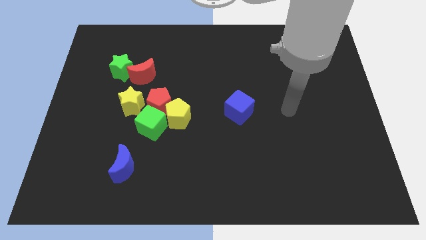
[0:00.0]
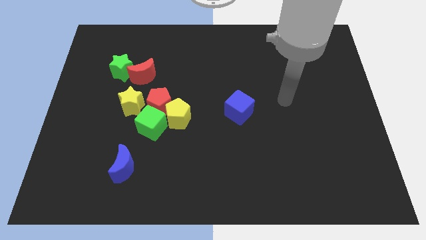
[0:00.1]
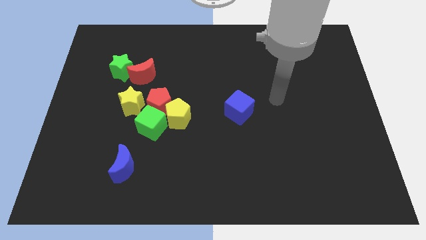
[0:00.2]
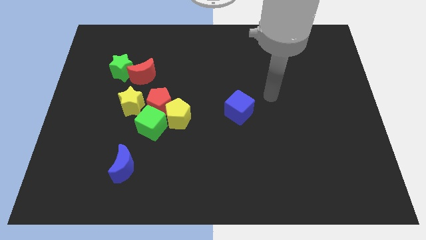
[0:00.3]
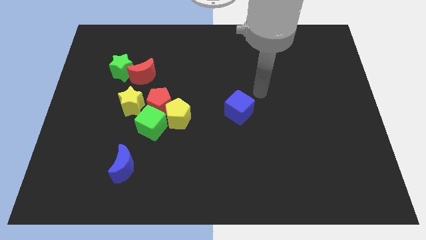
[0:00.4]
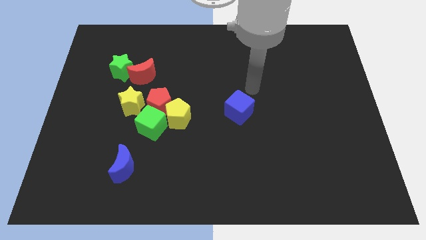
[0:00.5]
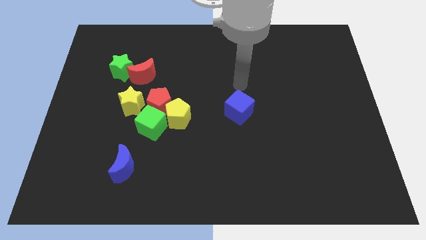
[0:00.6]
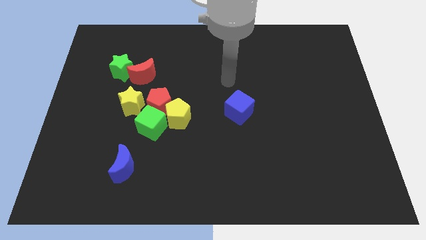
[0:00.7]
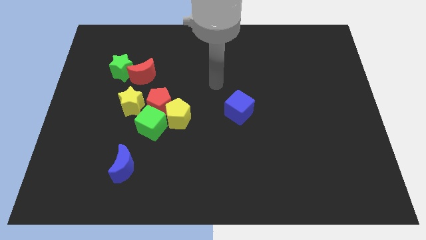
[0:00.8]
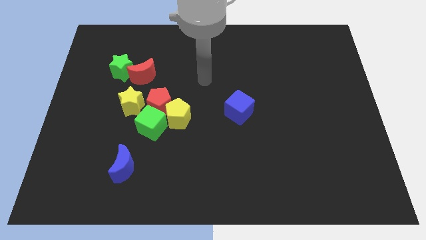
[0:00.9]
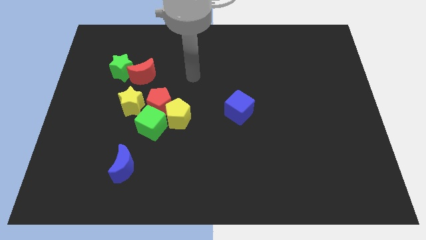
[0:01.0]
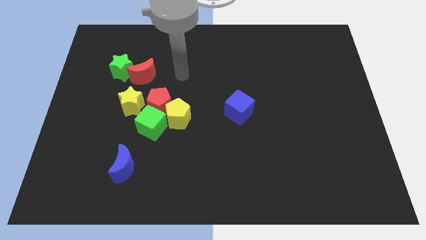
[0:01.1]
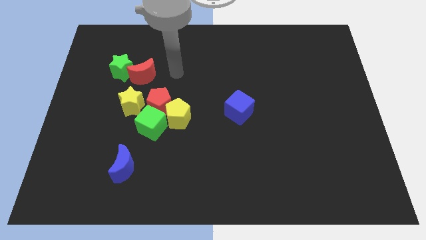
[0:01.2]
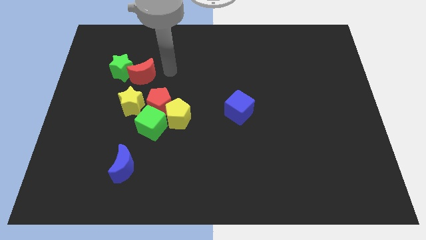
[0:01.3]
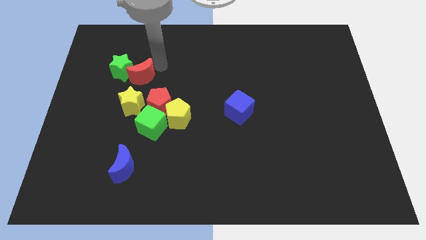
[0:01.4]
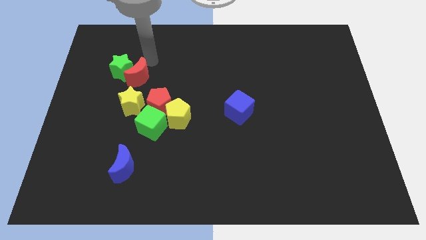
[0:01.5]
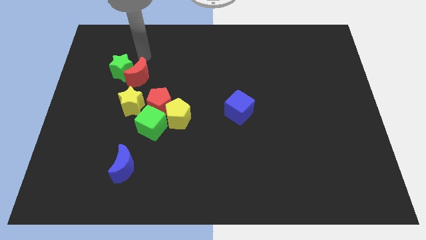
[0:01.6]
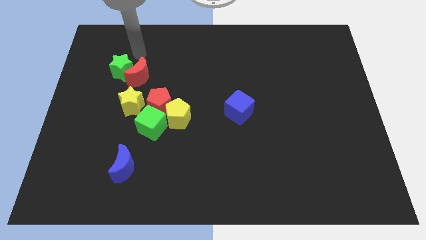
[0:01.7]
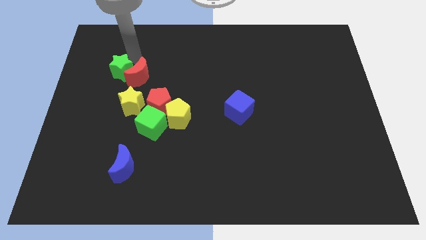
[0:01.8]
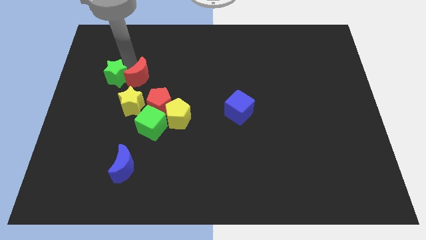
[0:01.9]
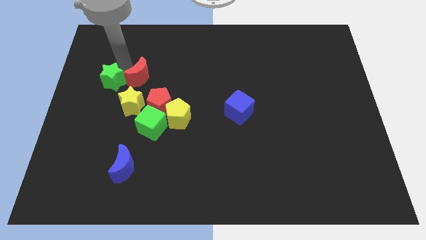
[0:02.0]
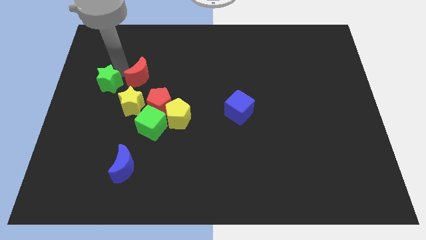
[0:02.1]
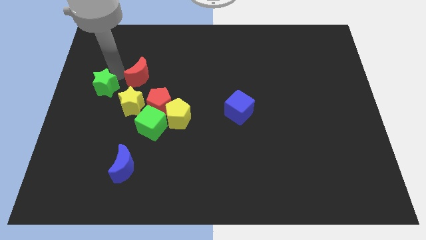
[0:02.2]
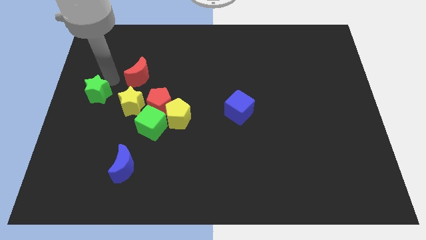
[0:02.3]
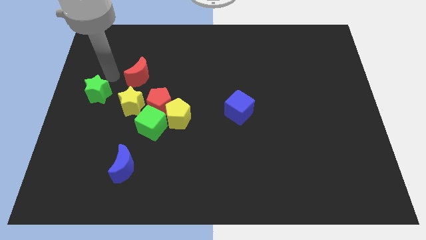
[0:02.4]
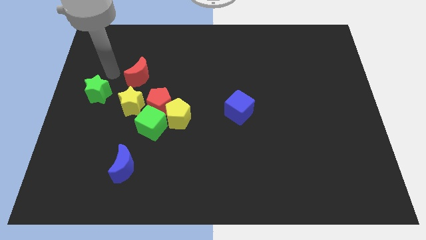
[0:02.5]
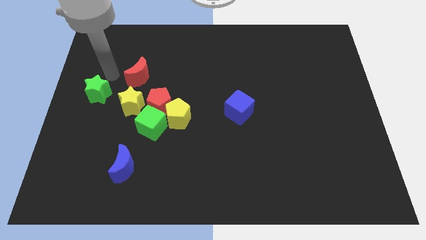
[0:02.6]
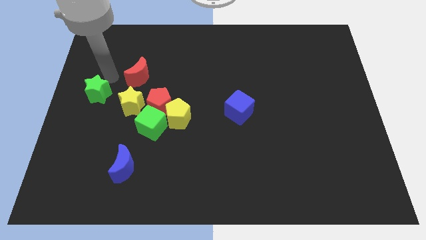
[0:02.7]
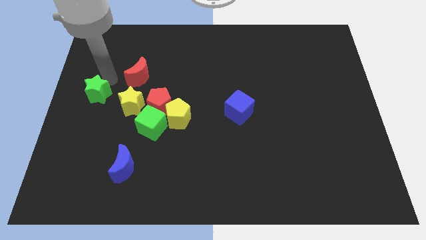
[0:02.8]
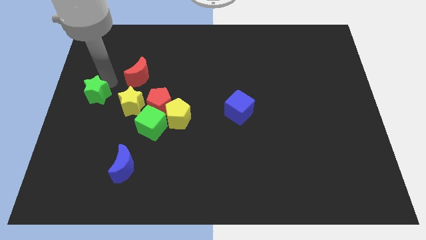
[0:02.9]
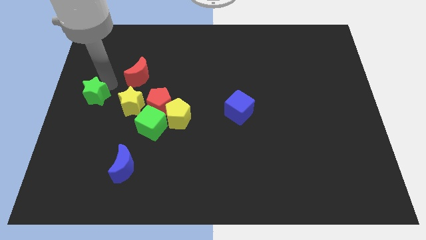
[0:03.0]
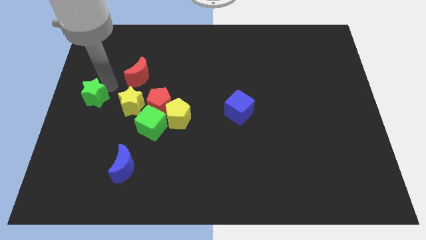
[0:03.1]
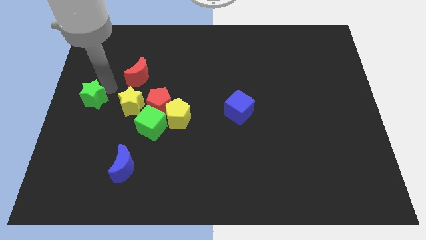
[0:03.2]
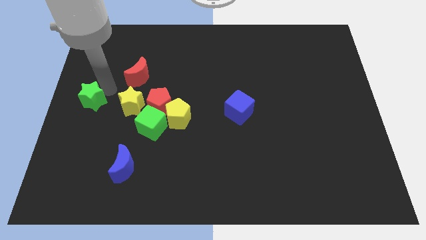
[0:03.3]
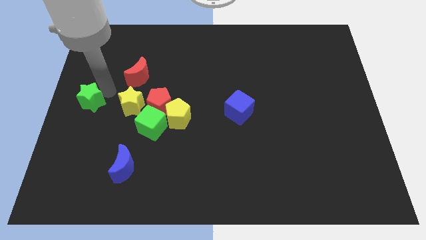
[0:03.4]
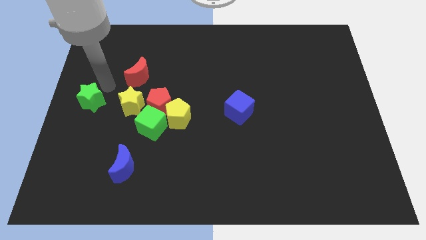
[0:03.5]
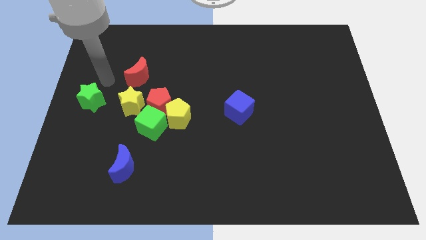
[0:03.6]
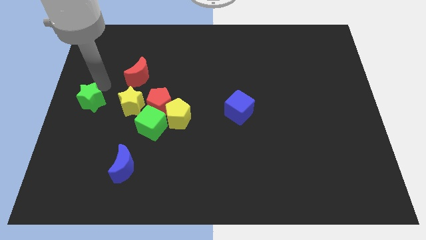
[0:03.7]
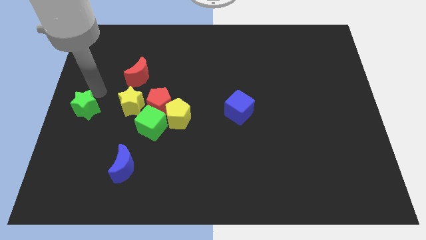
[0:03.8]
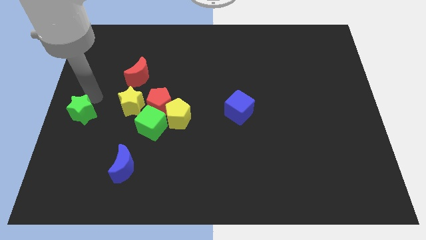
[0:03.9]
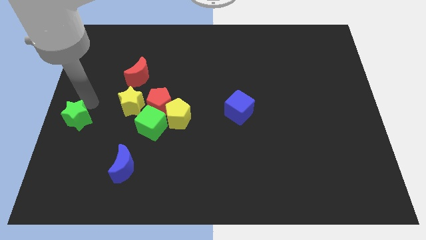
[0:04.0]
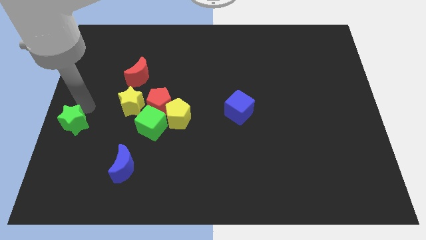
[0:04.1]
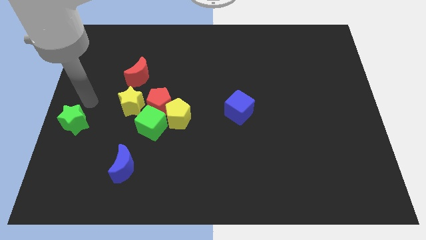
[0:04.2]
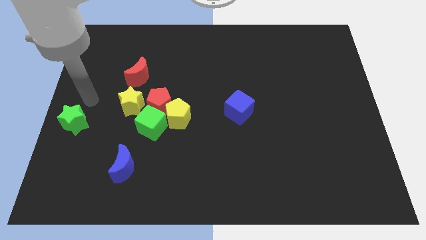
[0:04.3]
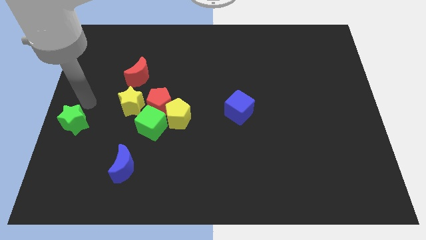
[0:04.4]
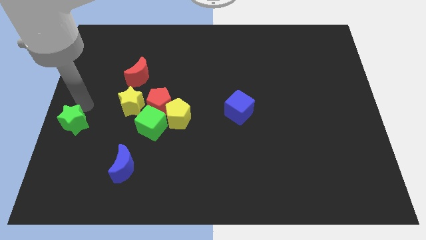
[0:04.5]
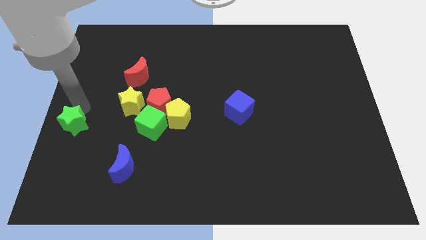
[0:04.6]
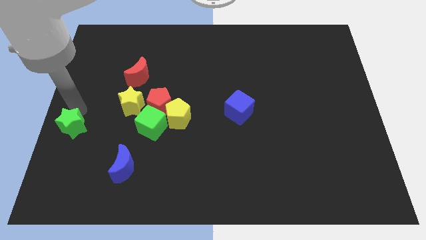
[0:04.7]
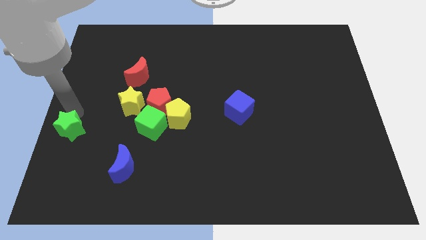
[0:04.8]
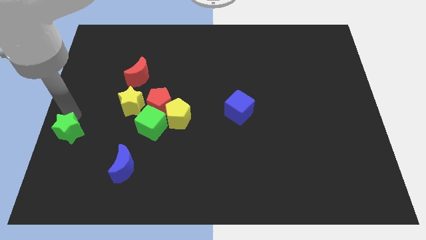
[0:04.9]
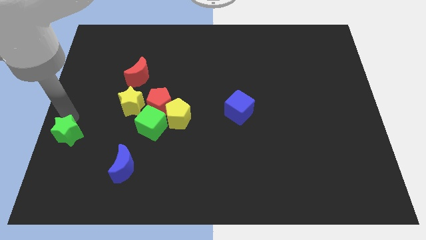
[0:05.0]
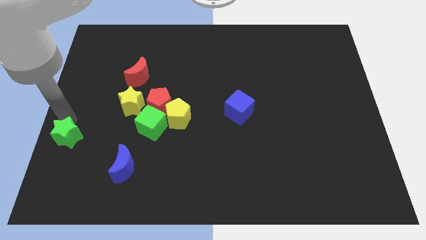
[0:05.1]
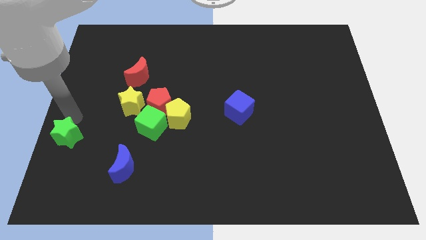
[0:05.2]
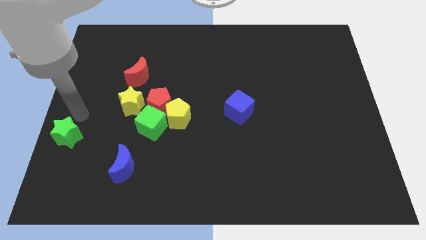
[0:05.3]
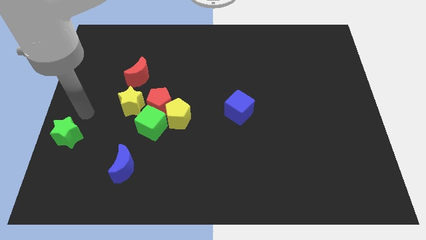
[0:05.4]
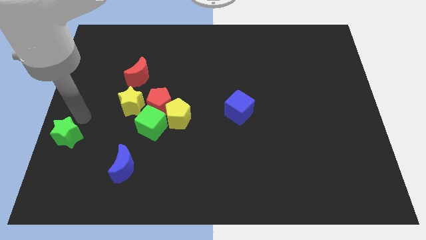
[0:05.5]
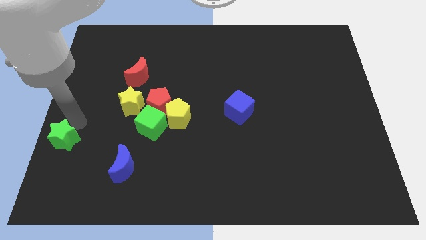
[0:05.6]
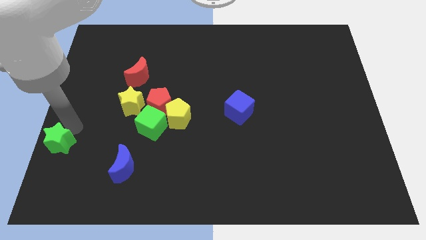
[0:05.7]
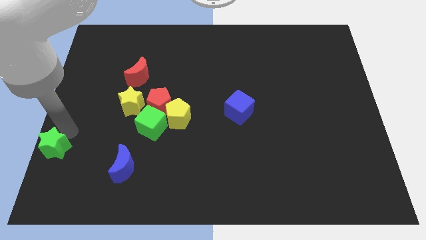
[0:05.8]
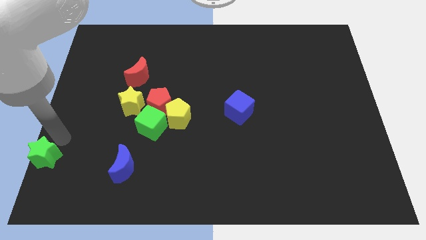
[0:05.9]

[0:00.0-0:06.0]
move the green star to the bottom left

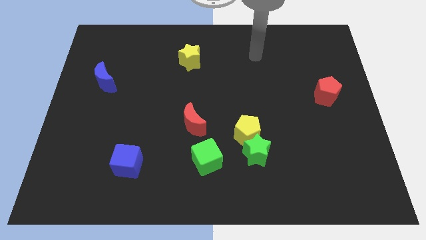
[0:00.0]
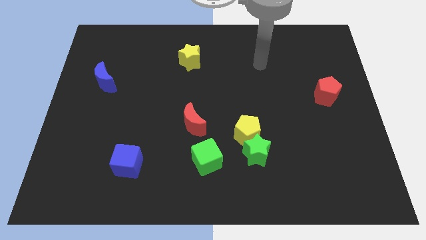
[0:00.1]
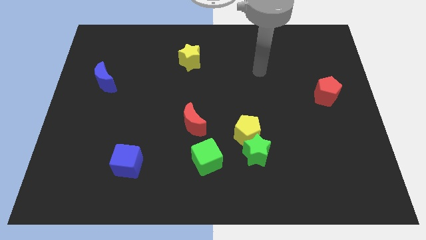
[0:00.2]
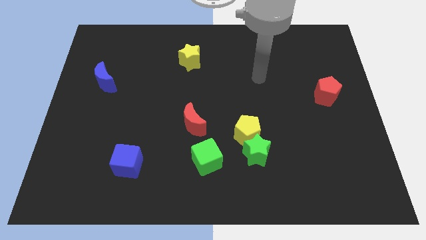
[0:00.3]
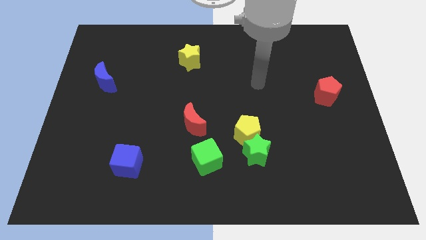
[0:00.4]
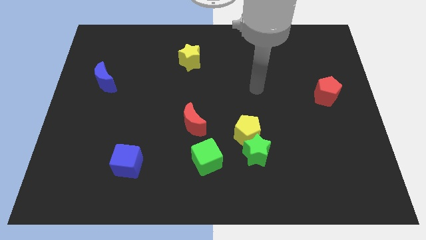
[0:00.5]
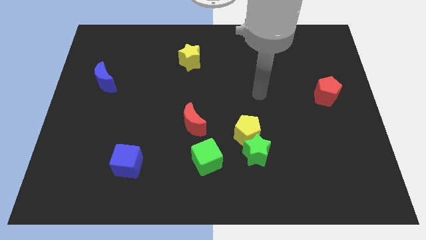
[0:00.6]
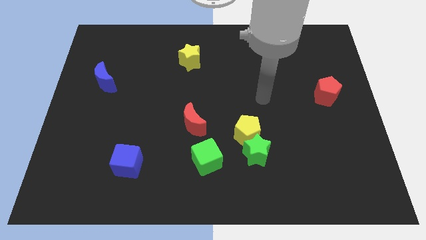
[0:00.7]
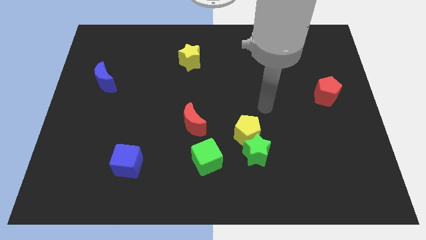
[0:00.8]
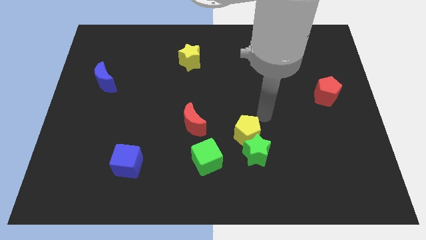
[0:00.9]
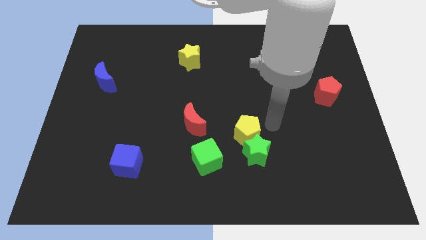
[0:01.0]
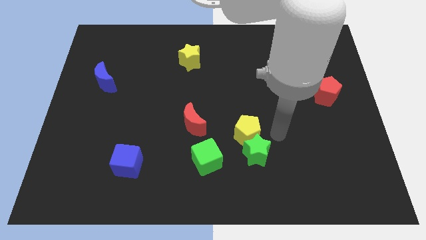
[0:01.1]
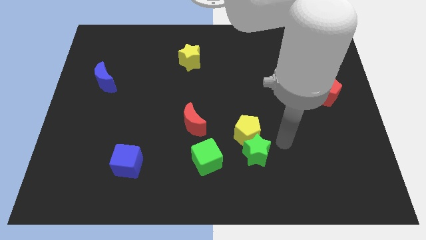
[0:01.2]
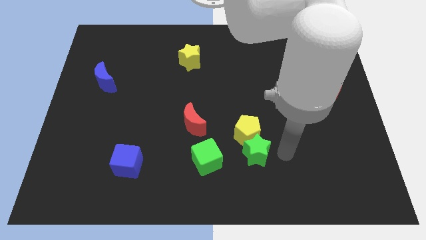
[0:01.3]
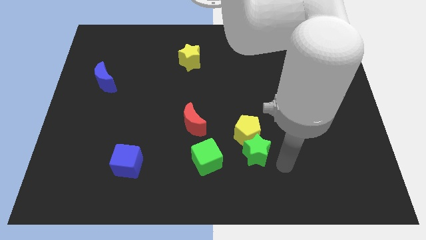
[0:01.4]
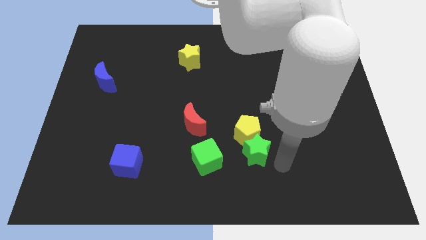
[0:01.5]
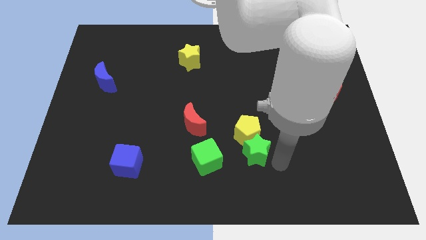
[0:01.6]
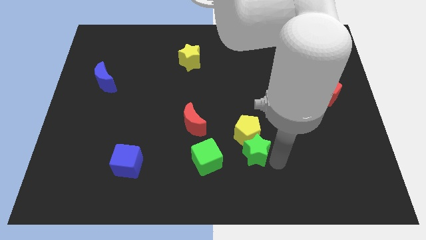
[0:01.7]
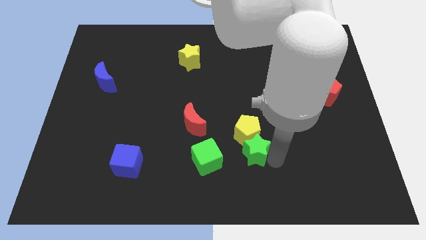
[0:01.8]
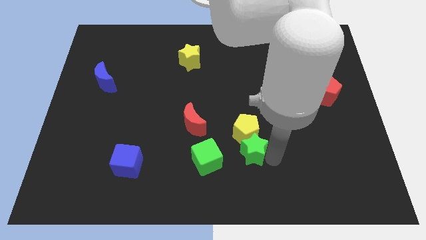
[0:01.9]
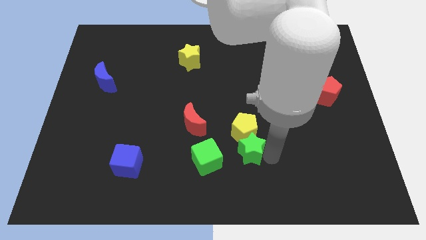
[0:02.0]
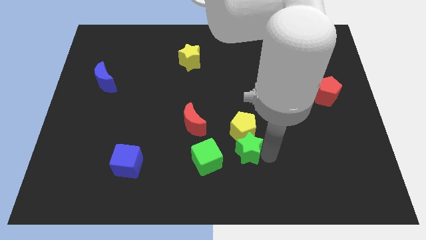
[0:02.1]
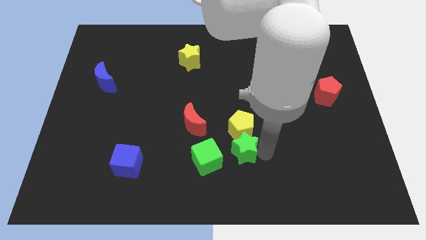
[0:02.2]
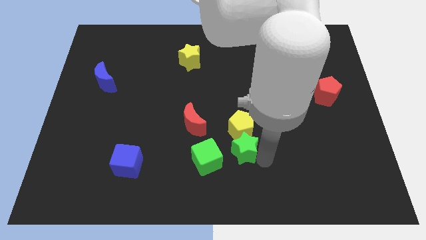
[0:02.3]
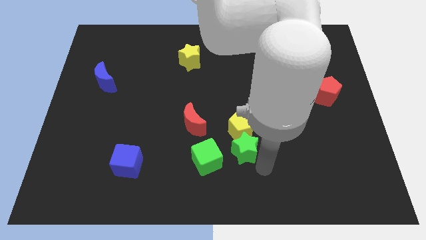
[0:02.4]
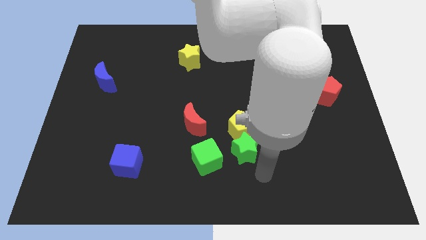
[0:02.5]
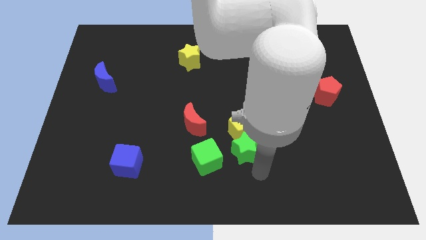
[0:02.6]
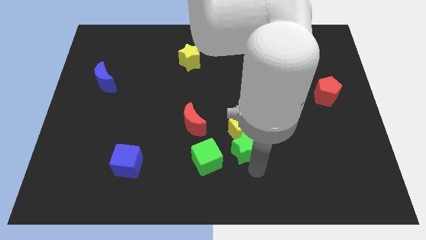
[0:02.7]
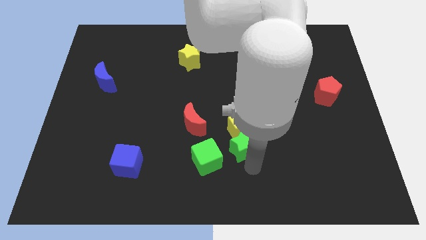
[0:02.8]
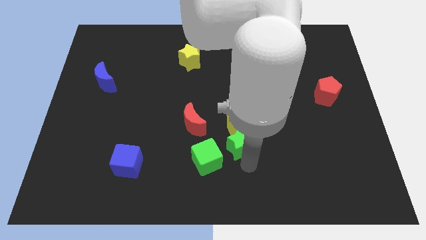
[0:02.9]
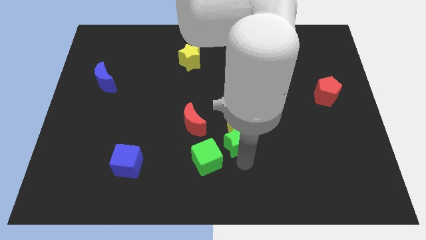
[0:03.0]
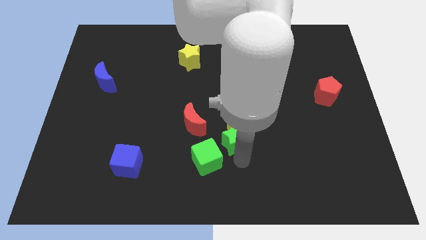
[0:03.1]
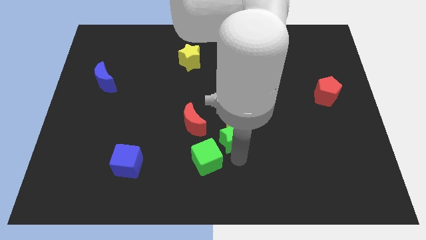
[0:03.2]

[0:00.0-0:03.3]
put the green star to the center
